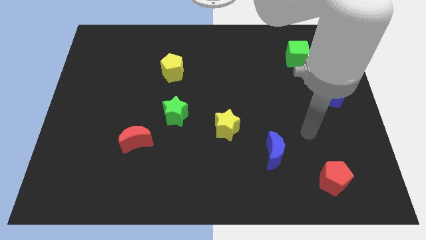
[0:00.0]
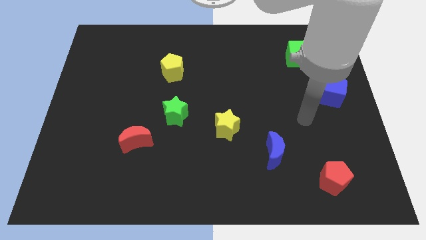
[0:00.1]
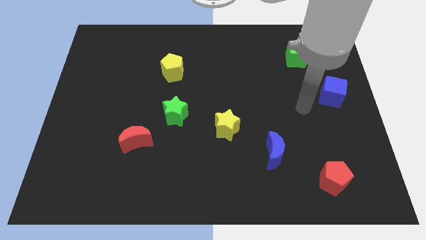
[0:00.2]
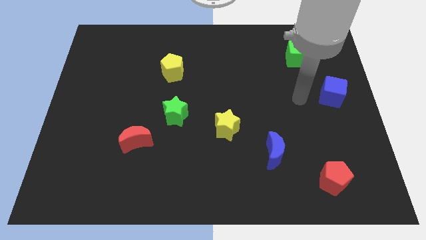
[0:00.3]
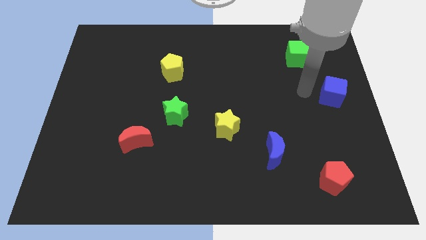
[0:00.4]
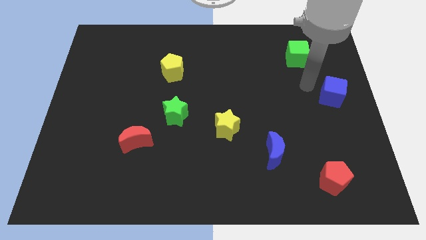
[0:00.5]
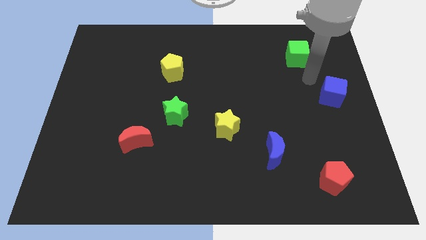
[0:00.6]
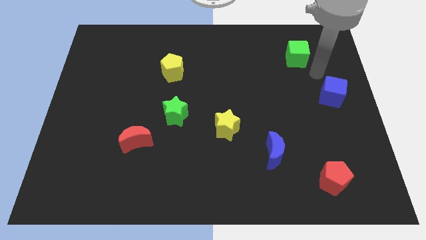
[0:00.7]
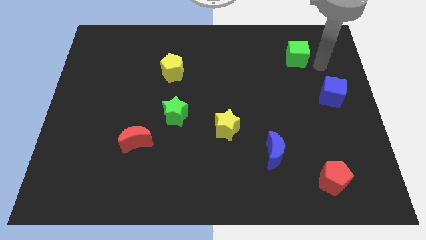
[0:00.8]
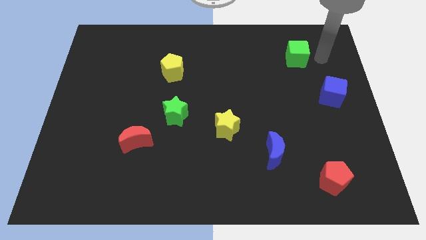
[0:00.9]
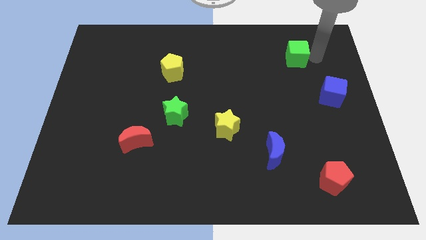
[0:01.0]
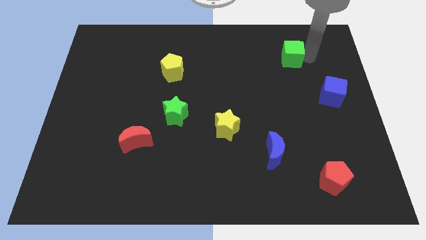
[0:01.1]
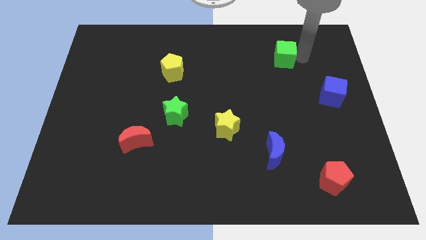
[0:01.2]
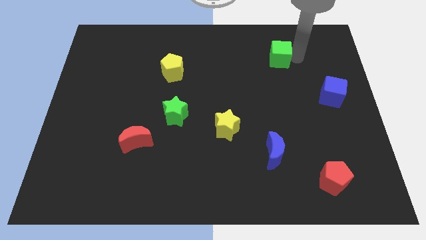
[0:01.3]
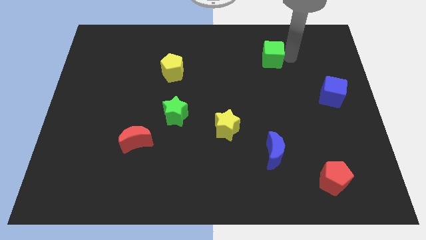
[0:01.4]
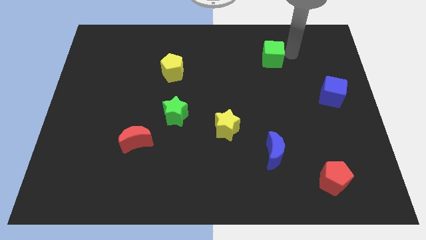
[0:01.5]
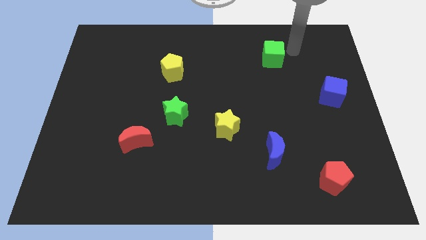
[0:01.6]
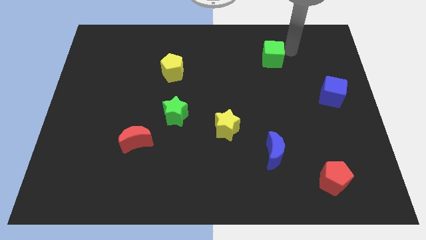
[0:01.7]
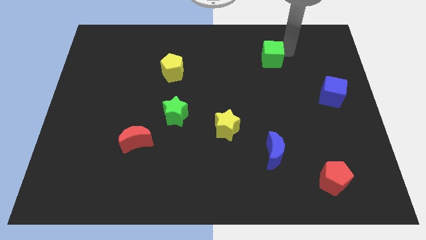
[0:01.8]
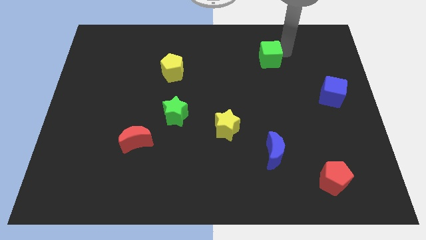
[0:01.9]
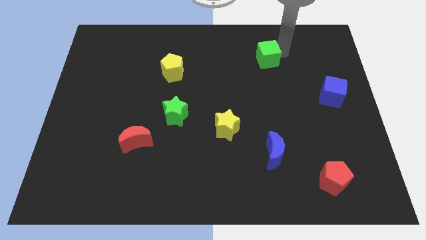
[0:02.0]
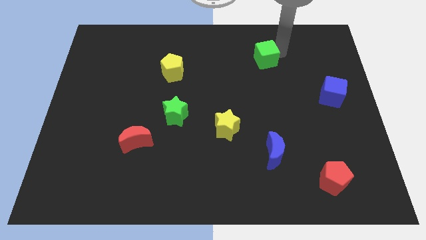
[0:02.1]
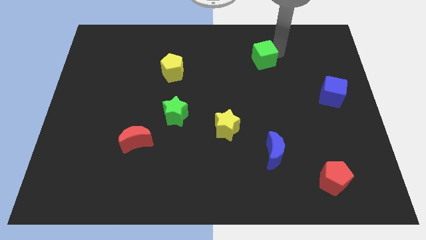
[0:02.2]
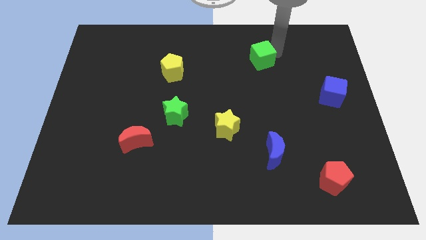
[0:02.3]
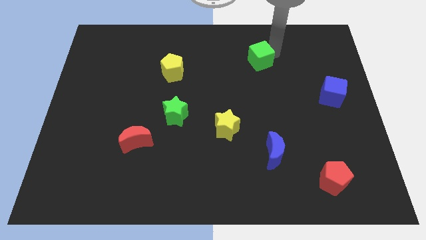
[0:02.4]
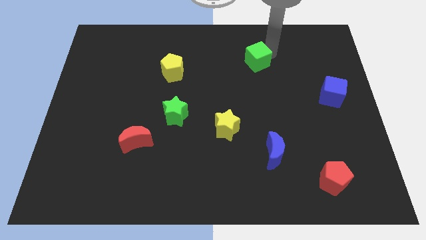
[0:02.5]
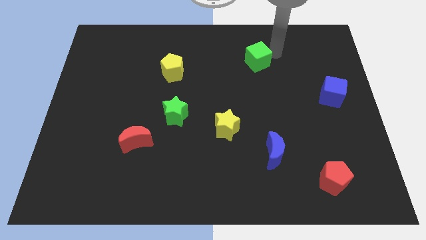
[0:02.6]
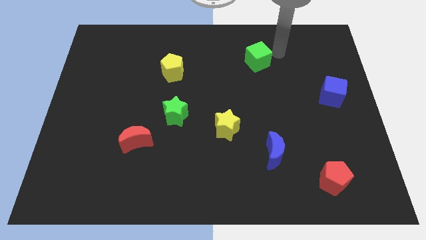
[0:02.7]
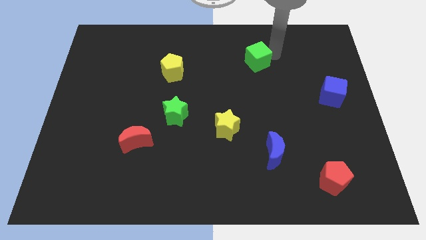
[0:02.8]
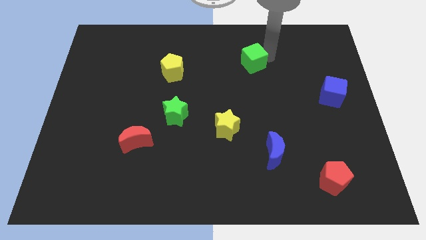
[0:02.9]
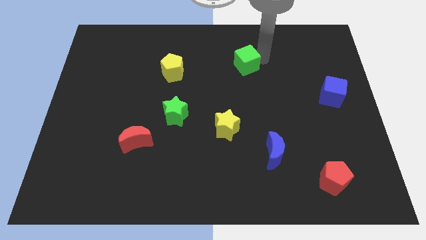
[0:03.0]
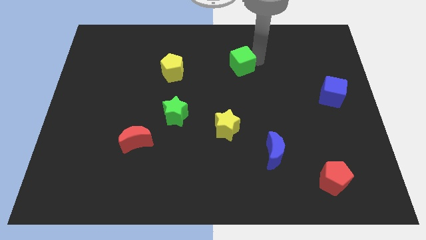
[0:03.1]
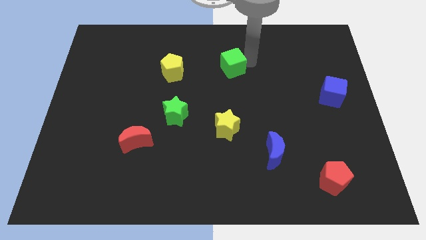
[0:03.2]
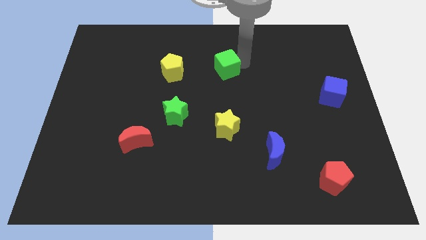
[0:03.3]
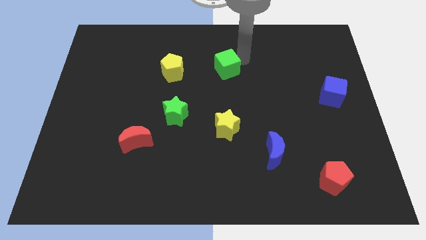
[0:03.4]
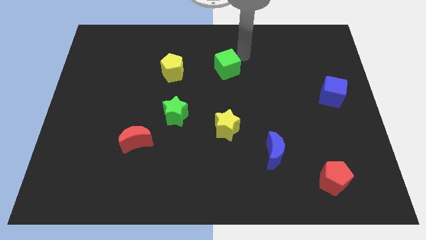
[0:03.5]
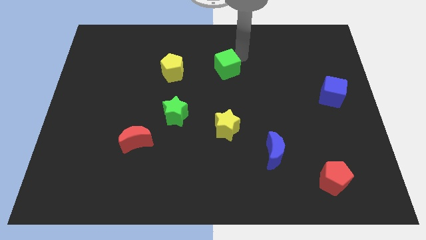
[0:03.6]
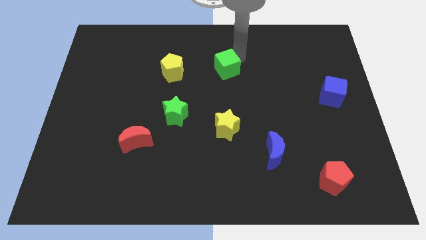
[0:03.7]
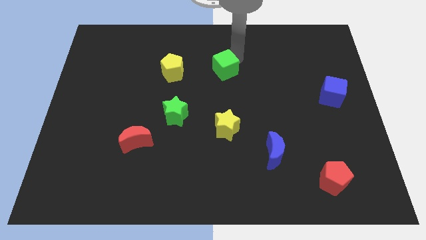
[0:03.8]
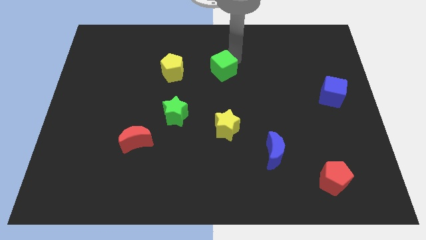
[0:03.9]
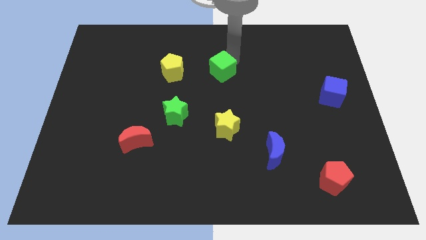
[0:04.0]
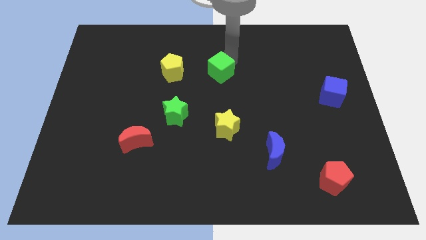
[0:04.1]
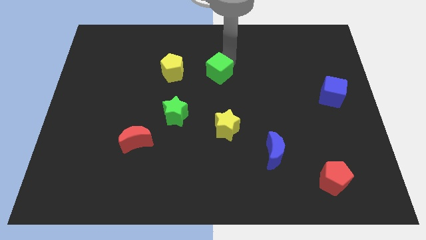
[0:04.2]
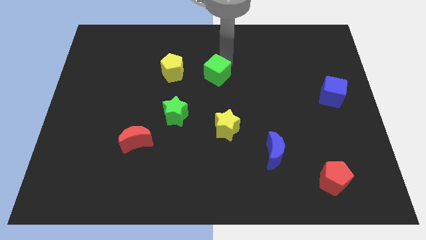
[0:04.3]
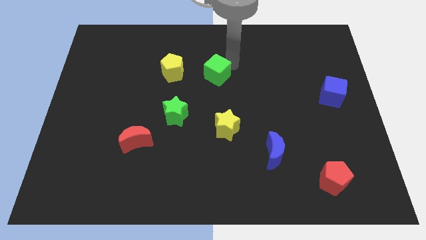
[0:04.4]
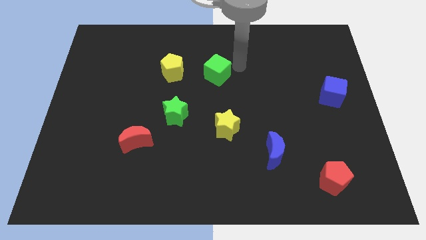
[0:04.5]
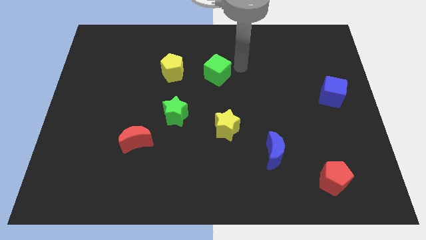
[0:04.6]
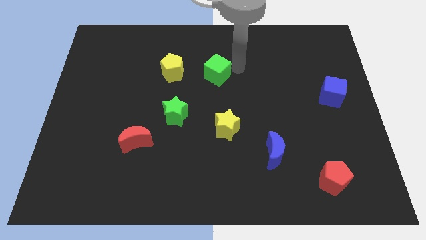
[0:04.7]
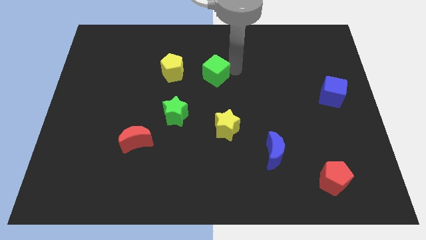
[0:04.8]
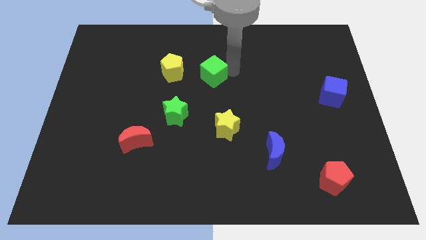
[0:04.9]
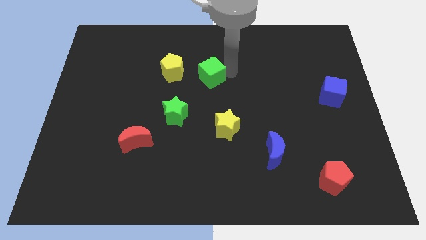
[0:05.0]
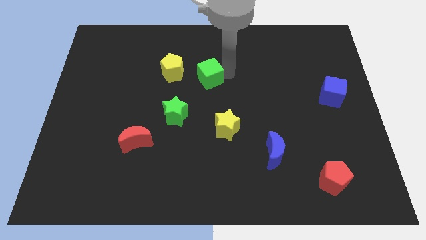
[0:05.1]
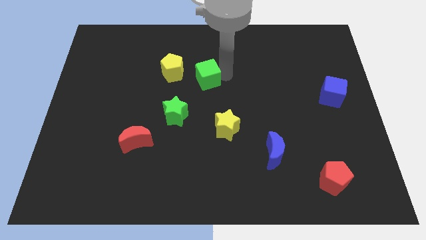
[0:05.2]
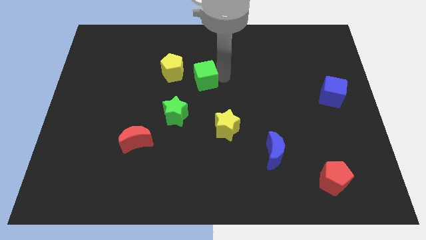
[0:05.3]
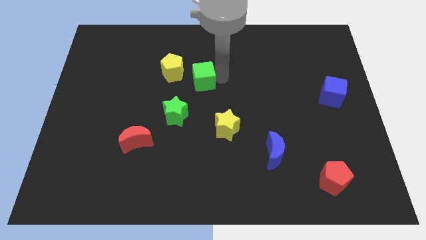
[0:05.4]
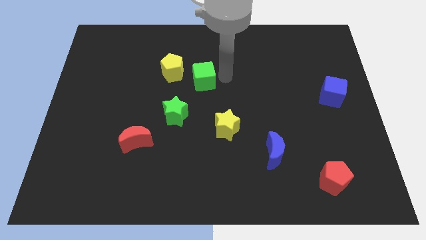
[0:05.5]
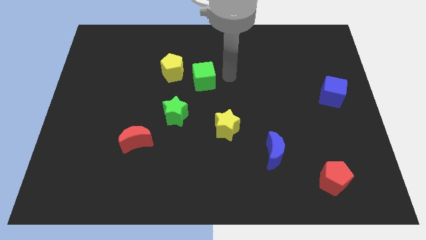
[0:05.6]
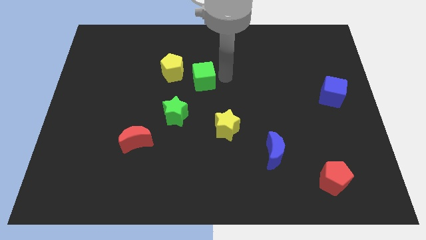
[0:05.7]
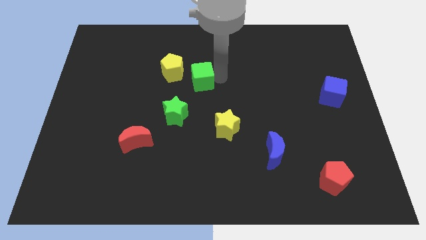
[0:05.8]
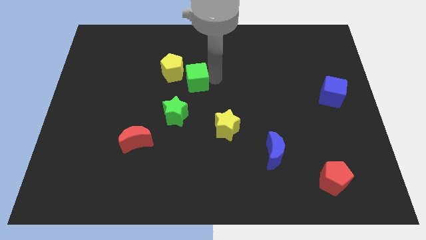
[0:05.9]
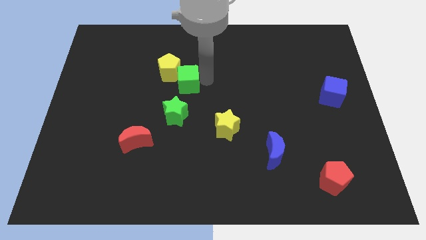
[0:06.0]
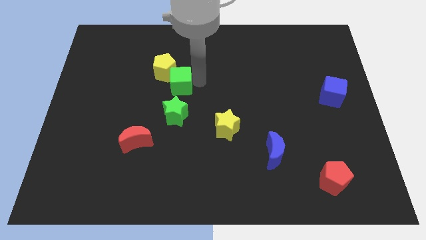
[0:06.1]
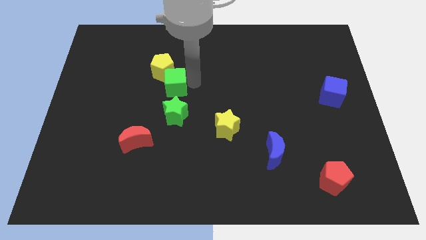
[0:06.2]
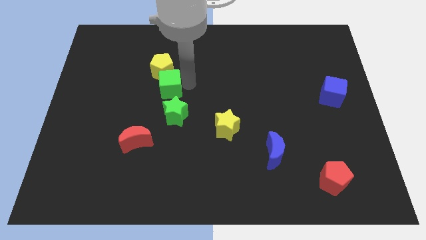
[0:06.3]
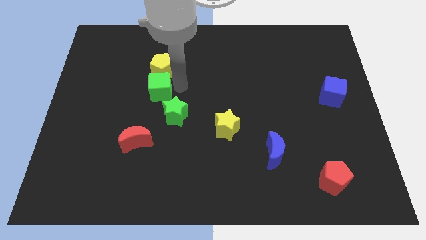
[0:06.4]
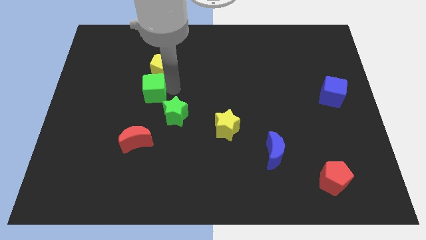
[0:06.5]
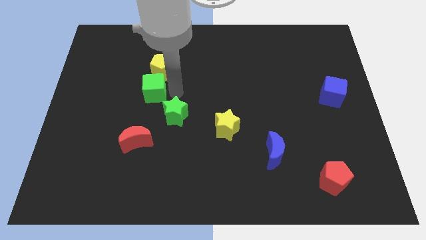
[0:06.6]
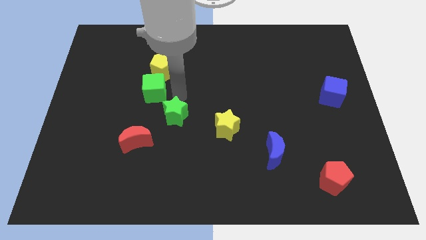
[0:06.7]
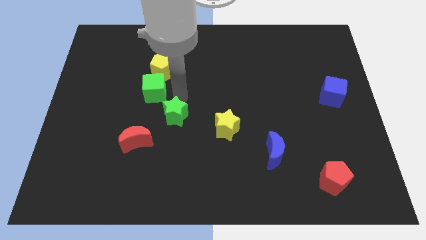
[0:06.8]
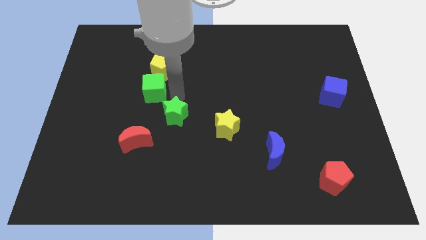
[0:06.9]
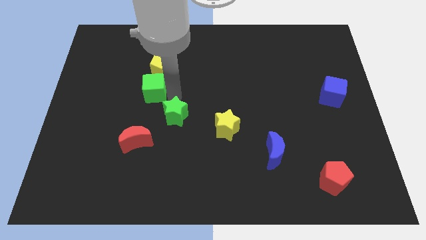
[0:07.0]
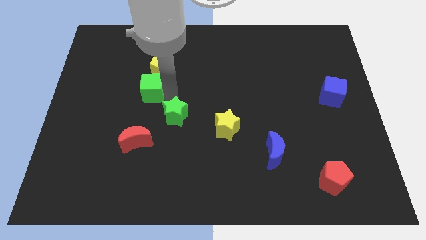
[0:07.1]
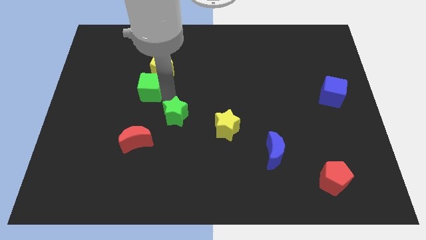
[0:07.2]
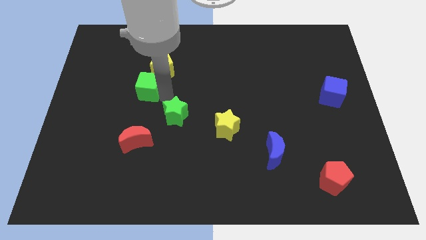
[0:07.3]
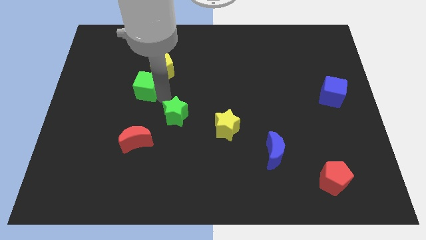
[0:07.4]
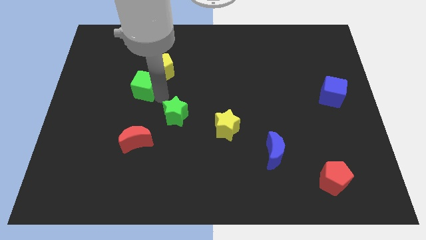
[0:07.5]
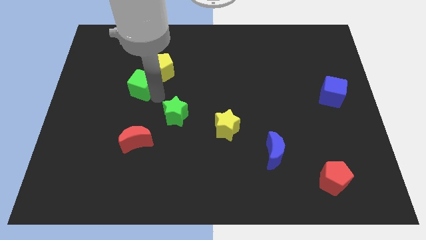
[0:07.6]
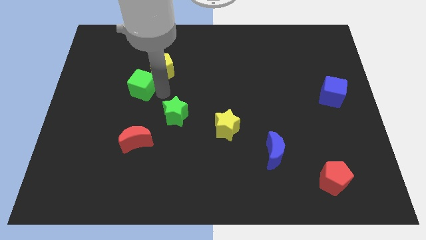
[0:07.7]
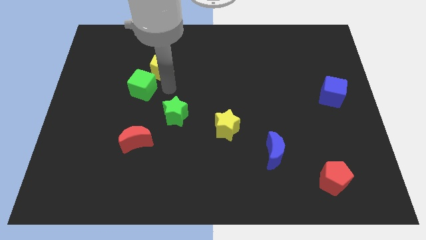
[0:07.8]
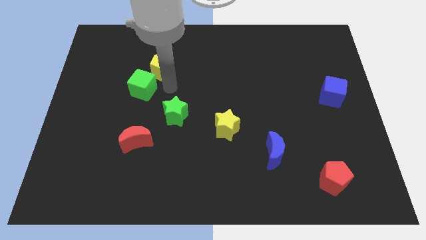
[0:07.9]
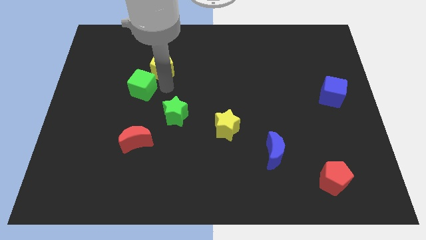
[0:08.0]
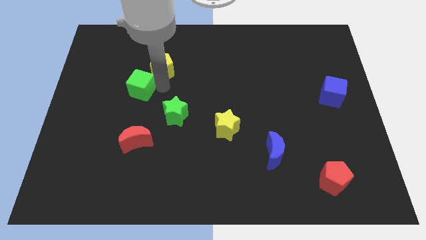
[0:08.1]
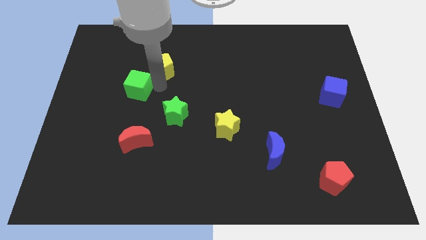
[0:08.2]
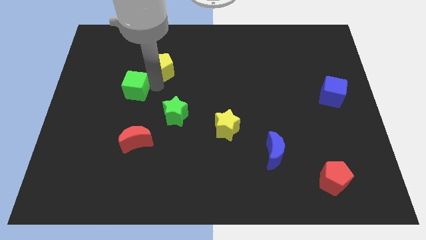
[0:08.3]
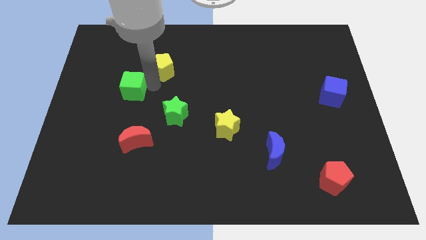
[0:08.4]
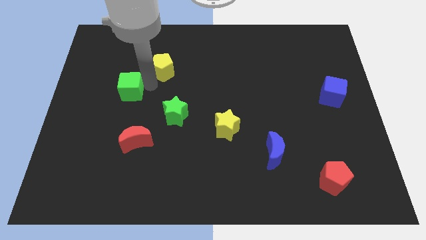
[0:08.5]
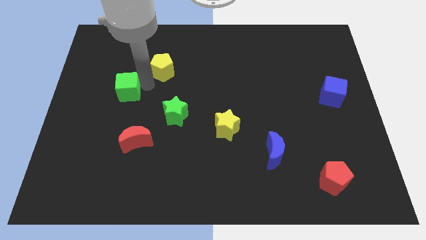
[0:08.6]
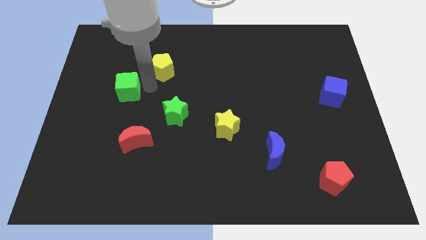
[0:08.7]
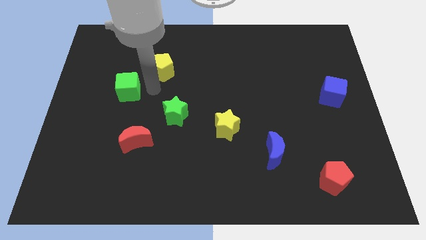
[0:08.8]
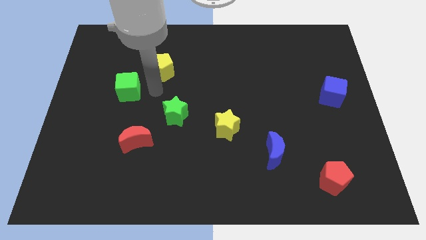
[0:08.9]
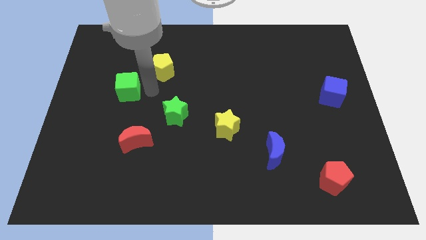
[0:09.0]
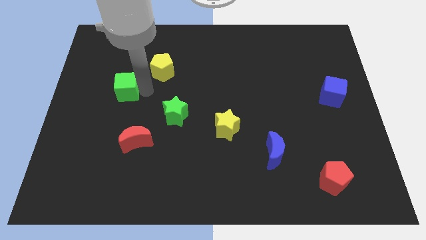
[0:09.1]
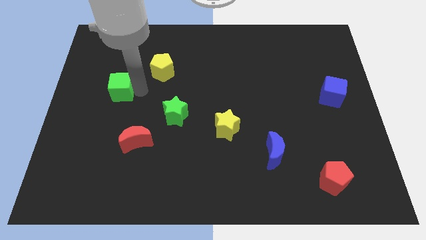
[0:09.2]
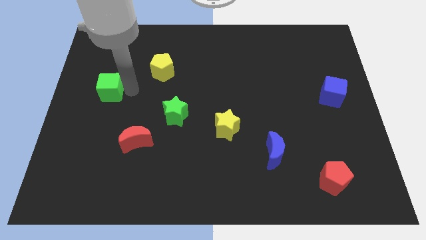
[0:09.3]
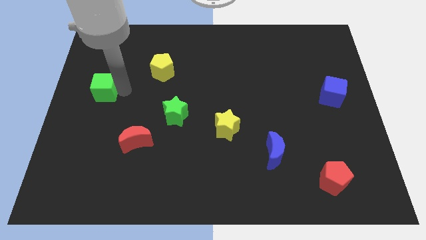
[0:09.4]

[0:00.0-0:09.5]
push the green cube to the left side of the board
